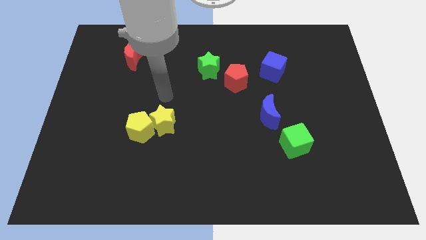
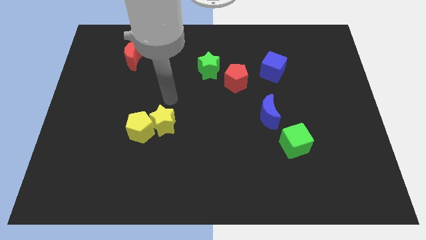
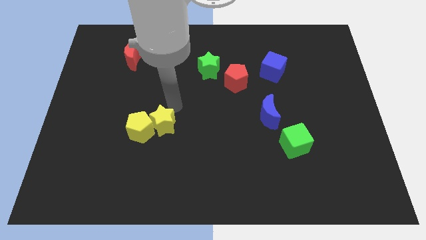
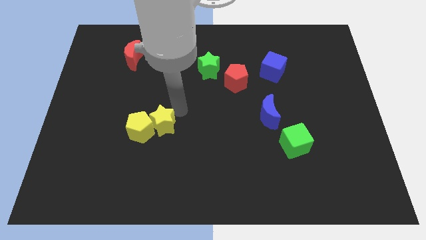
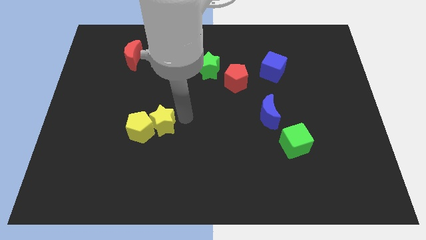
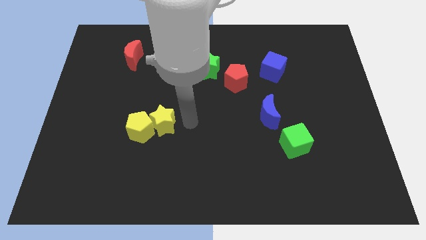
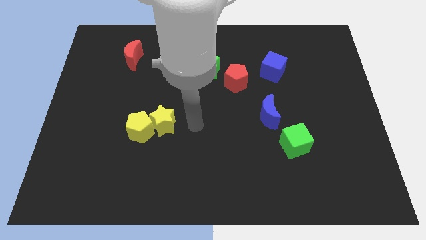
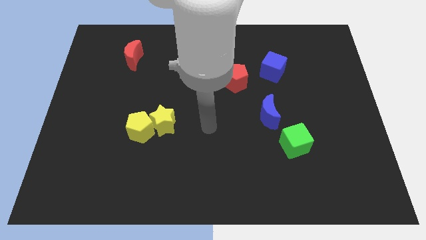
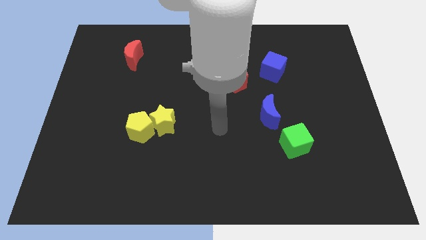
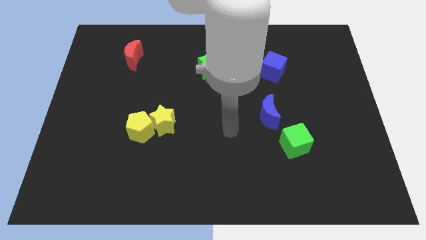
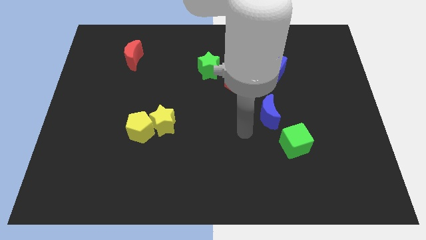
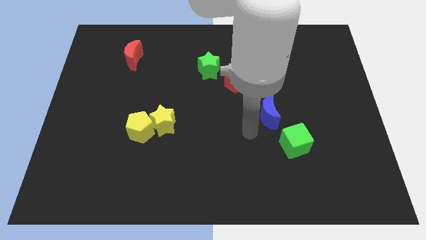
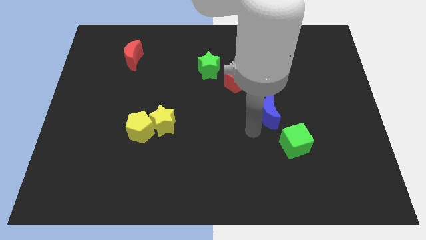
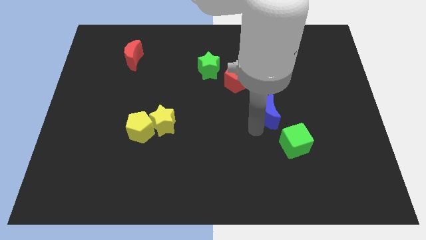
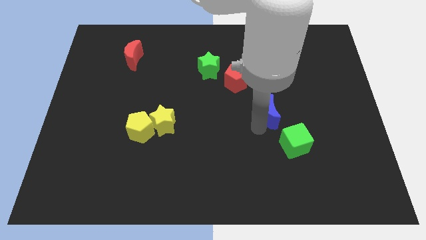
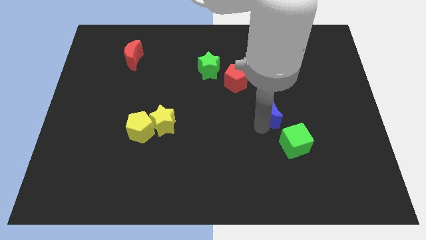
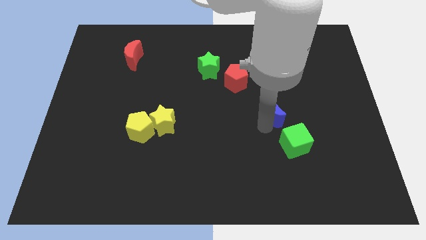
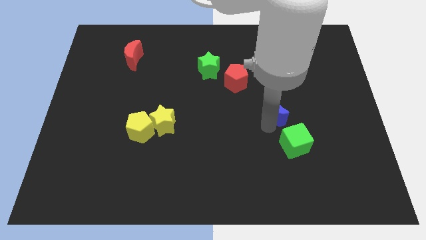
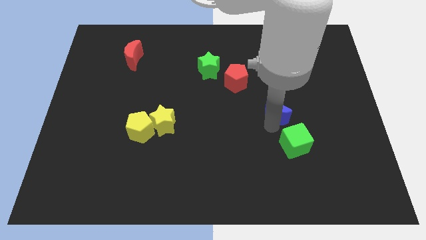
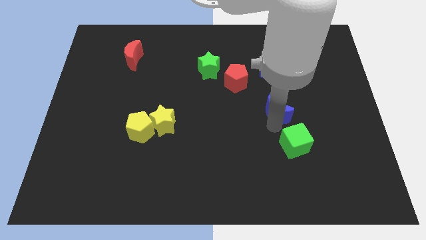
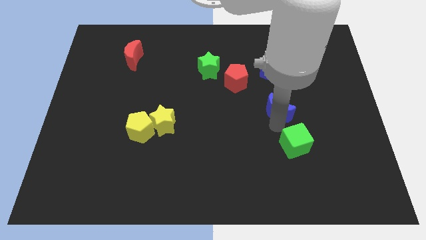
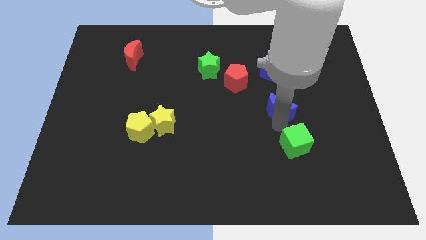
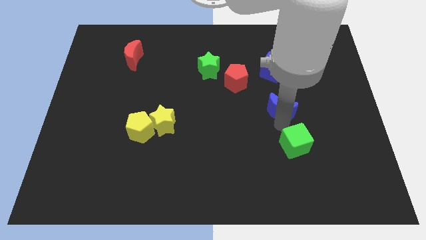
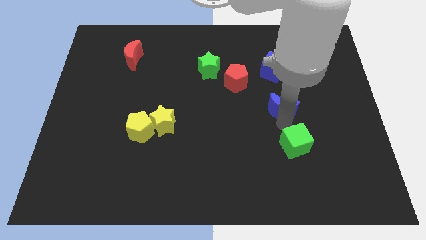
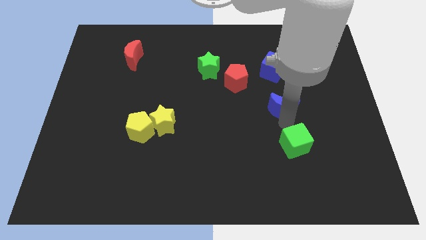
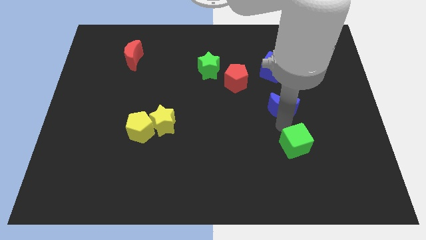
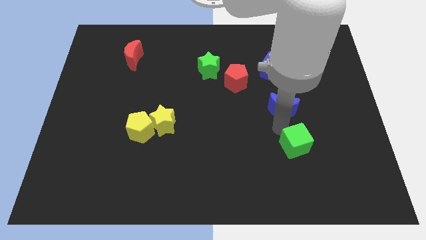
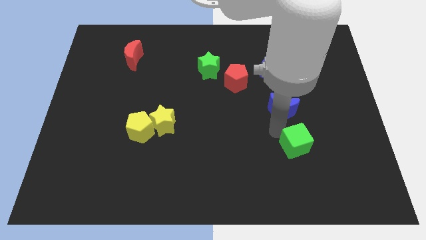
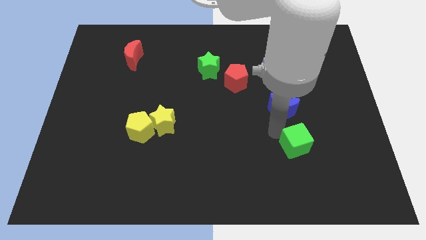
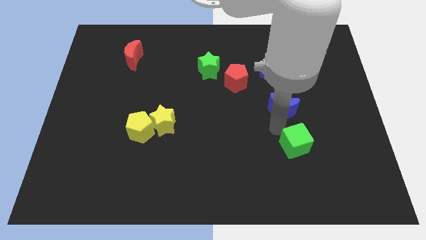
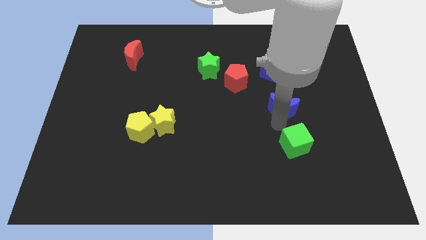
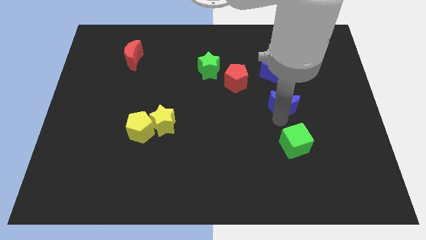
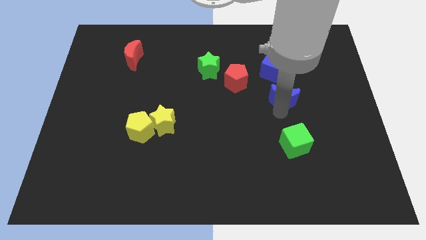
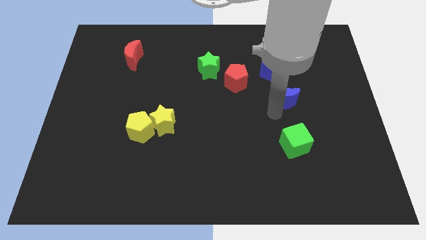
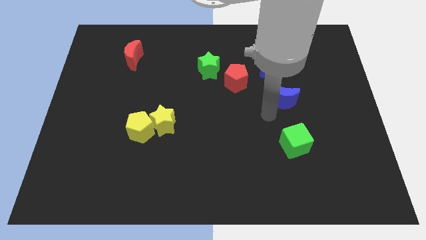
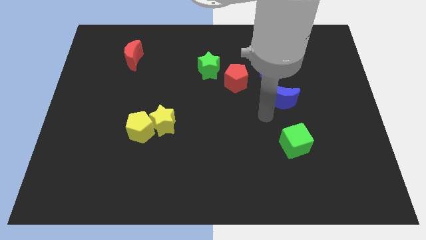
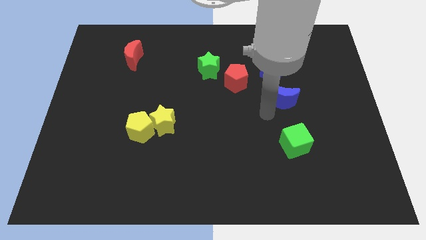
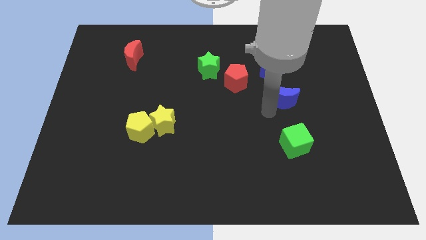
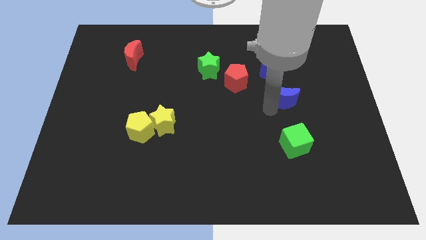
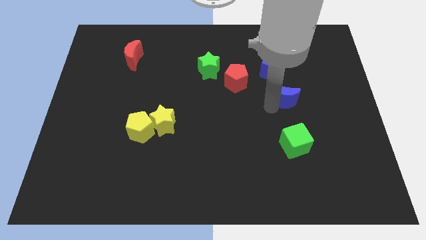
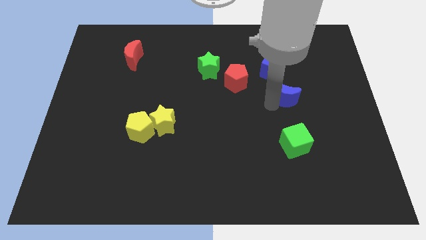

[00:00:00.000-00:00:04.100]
slightly push the blue moon diagonally upwards and to the right

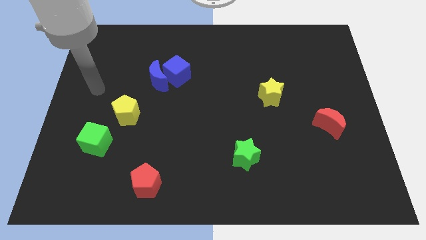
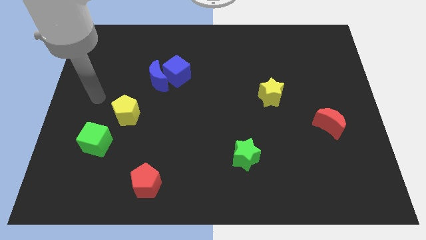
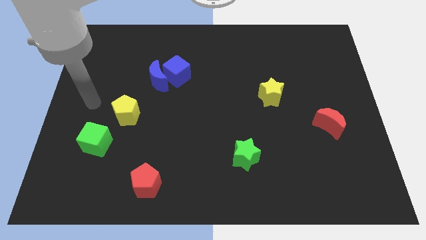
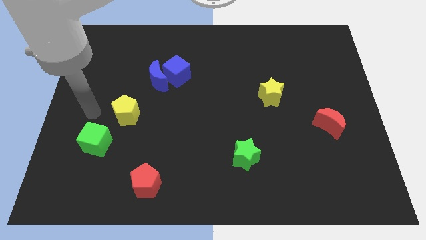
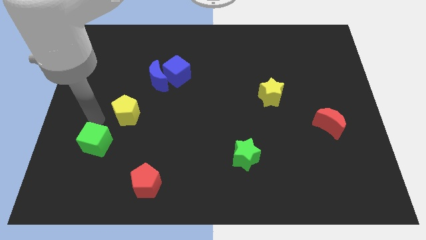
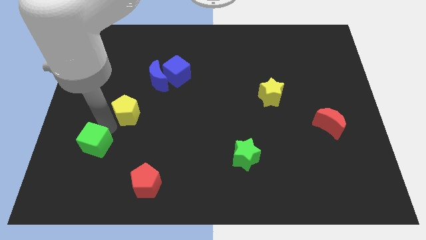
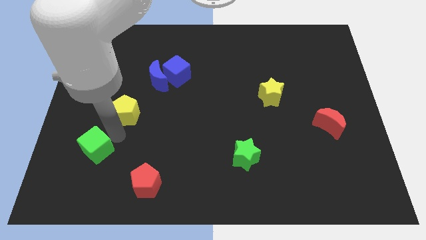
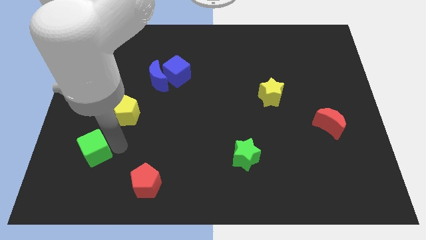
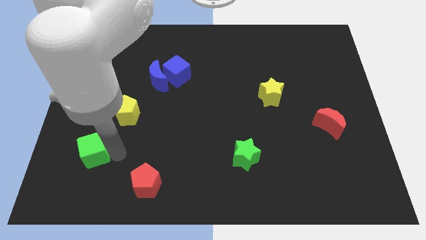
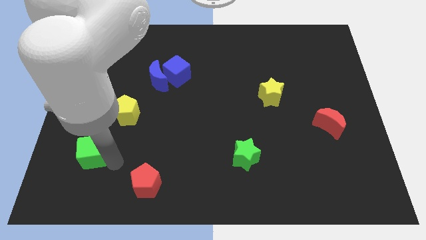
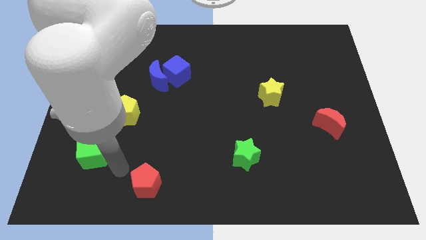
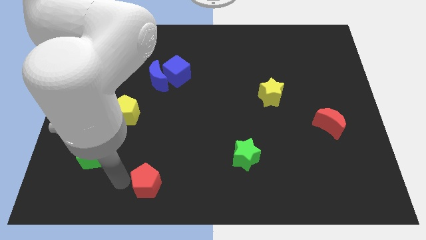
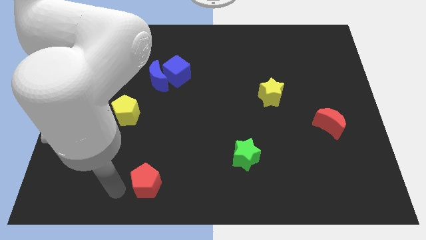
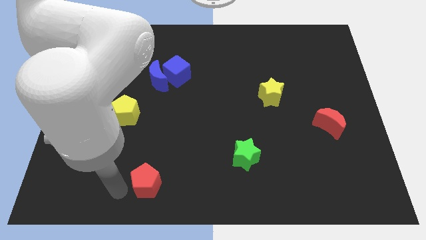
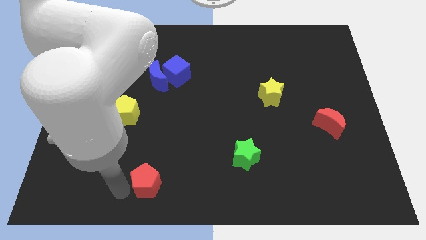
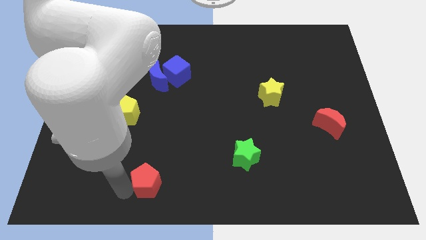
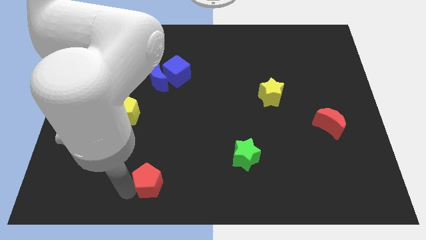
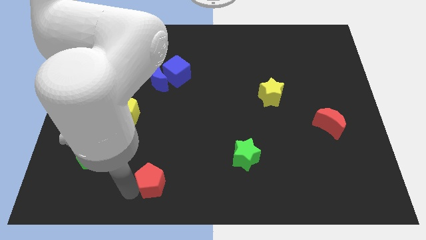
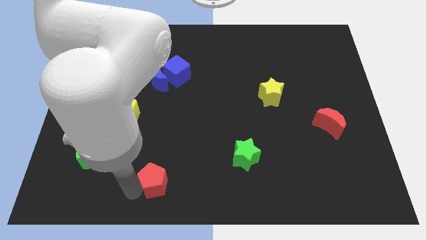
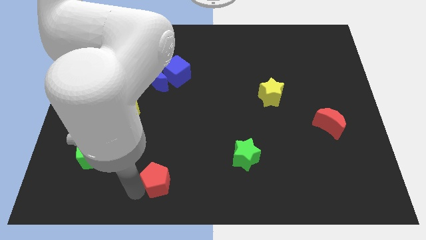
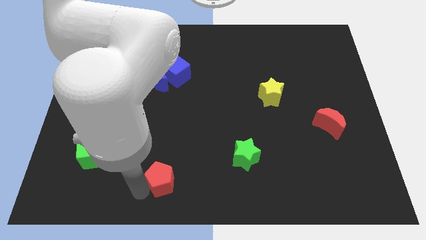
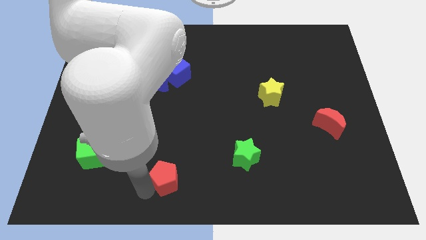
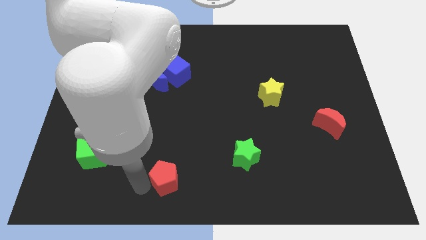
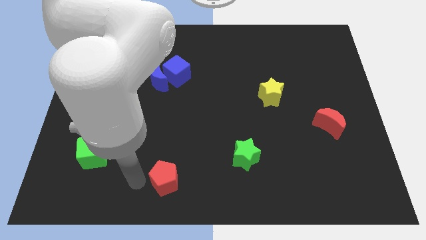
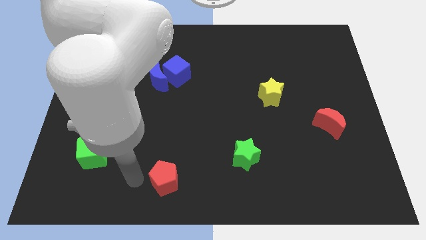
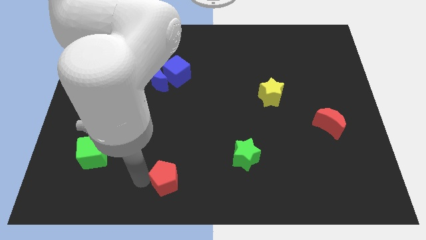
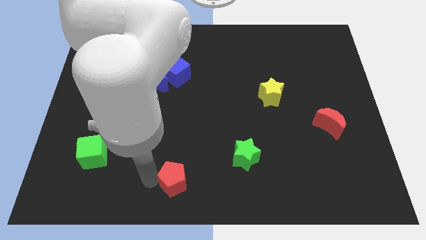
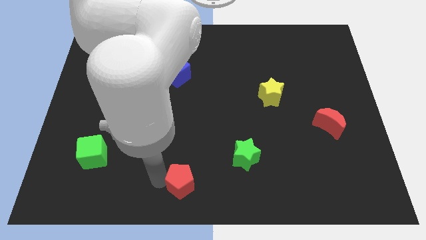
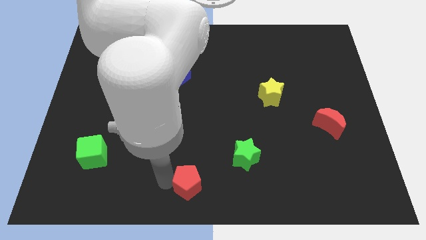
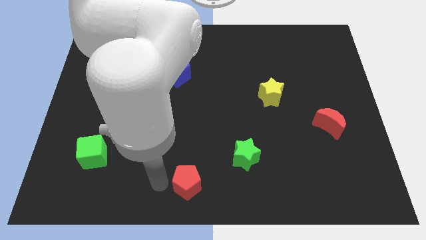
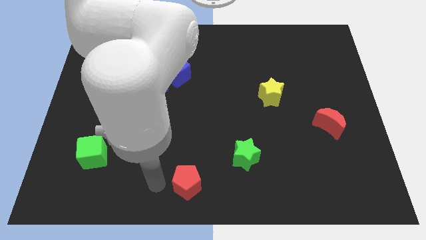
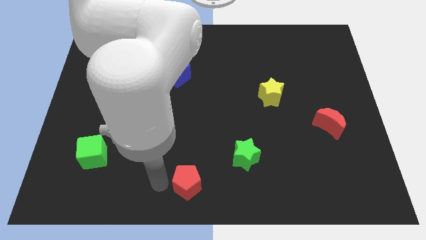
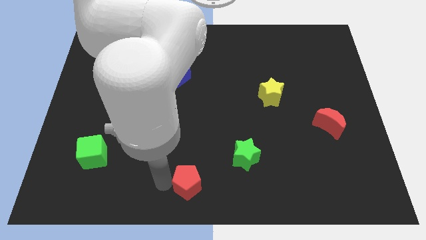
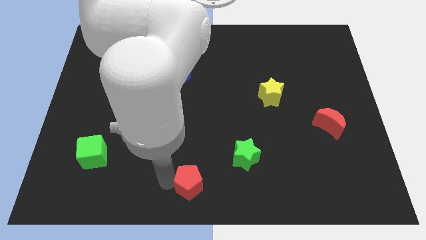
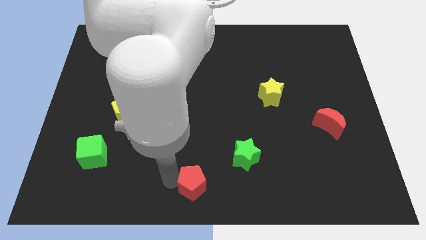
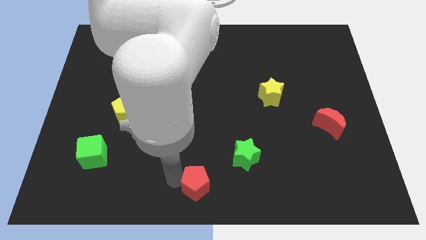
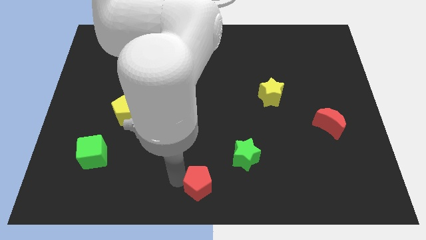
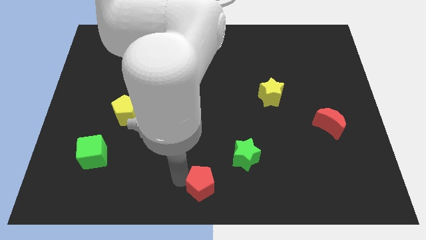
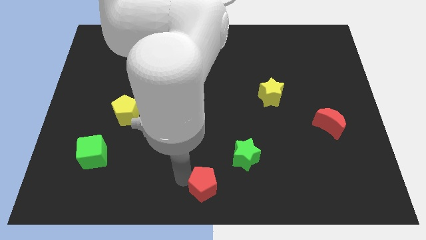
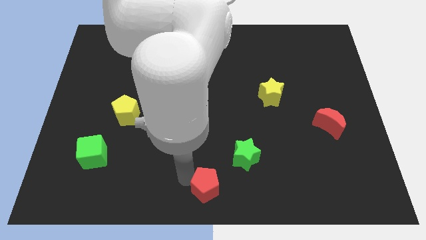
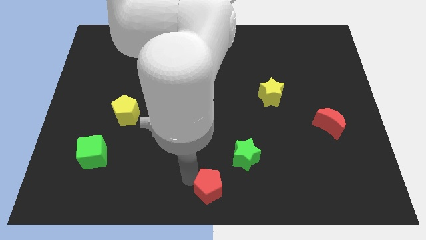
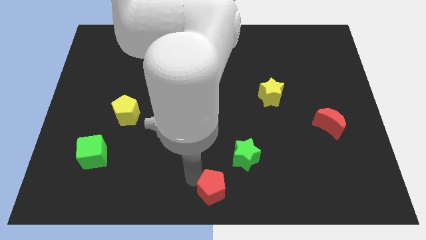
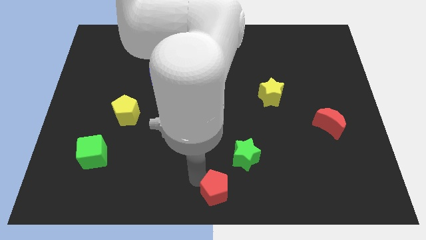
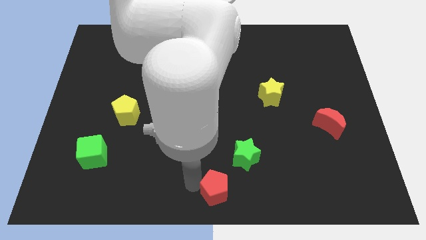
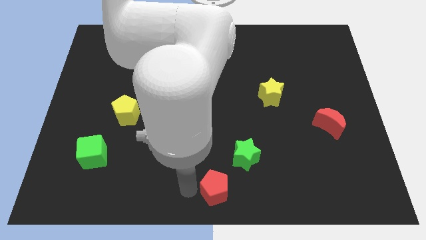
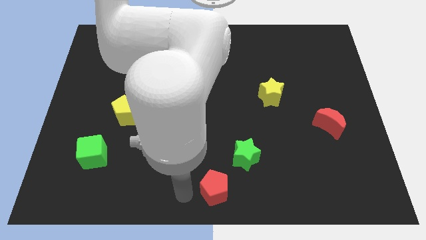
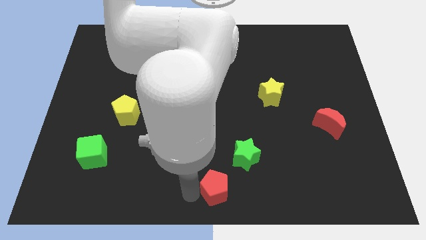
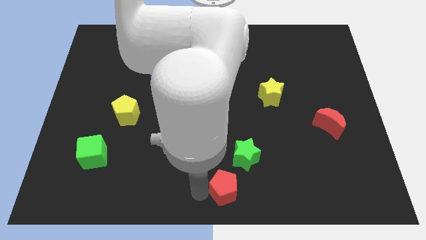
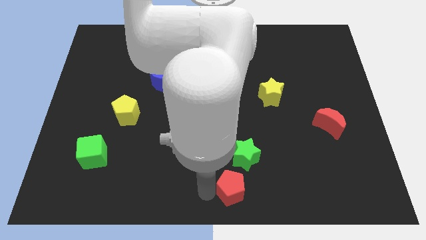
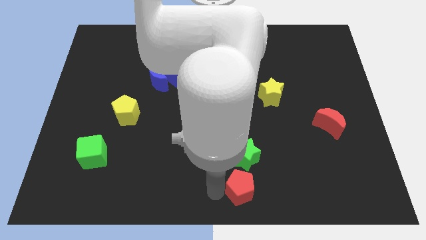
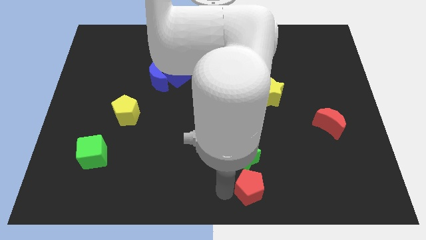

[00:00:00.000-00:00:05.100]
push the red pentagon right
